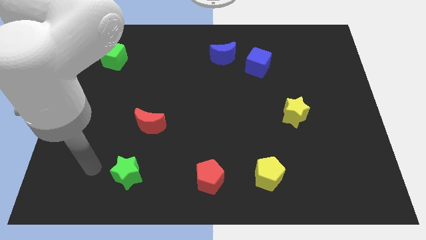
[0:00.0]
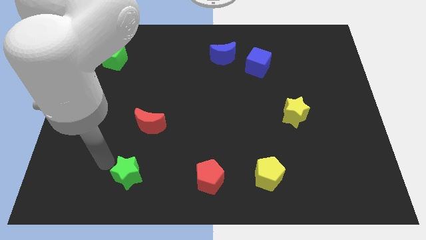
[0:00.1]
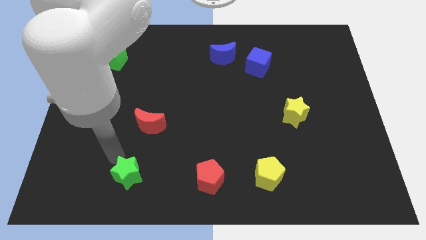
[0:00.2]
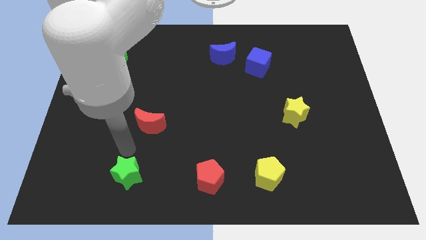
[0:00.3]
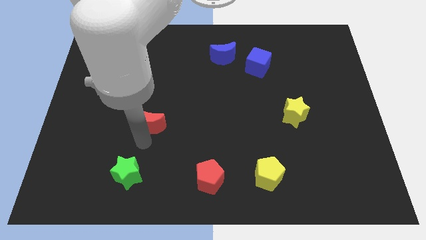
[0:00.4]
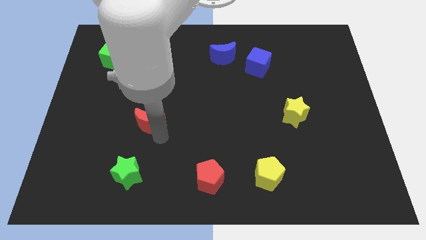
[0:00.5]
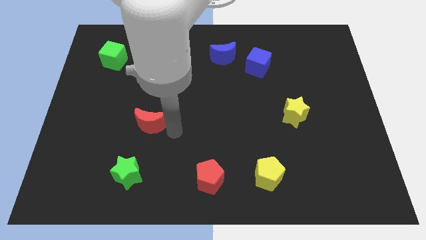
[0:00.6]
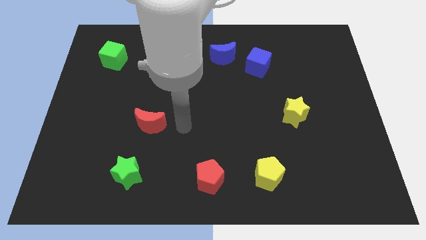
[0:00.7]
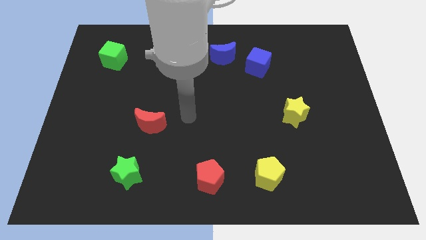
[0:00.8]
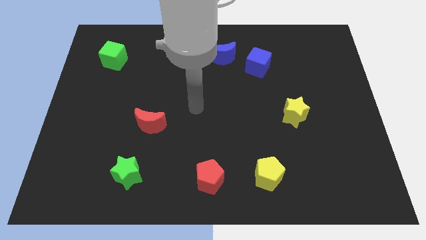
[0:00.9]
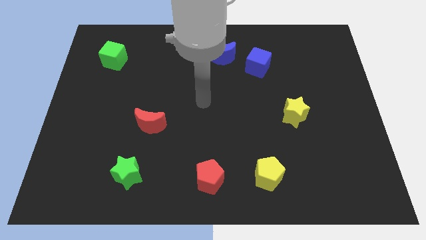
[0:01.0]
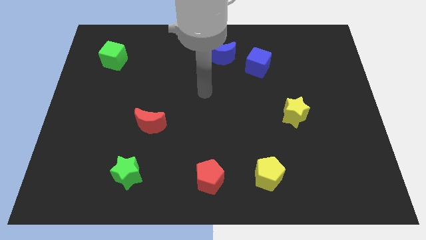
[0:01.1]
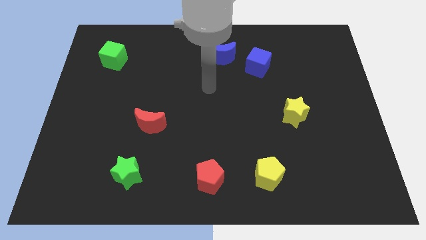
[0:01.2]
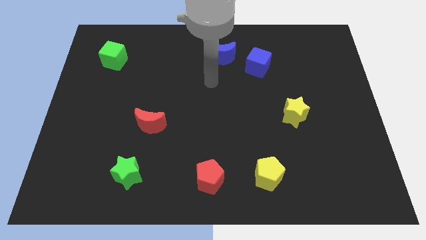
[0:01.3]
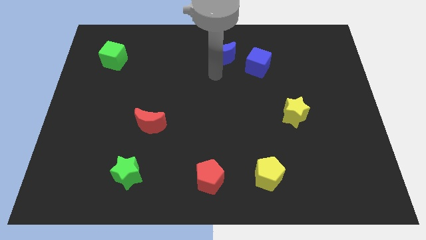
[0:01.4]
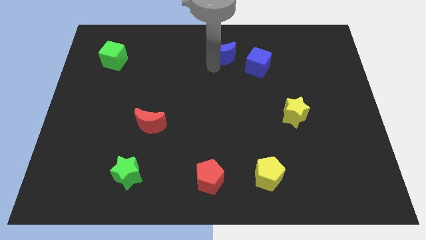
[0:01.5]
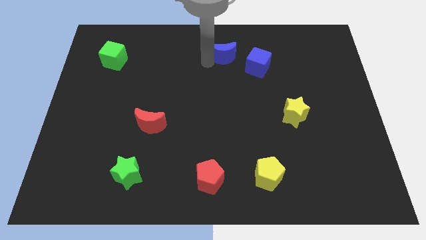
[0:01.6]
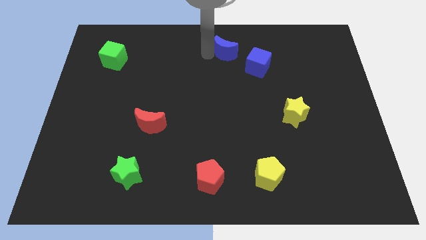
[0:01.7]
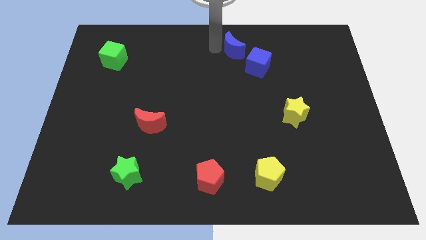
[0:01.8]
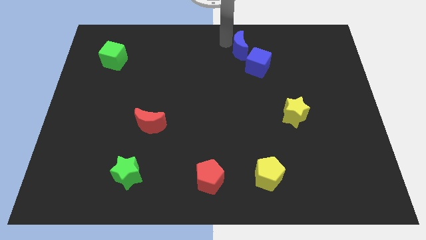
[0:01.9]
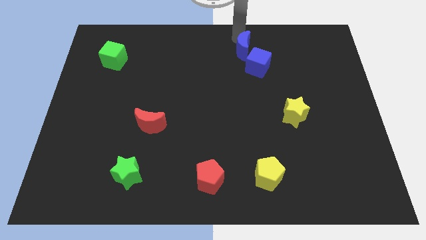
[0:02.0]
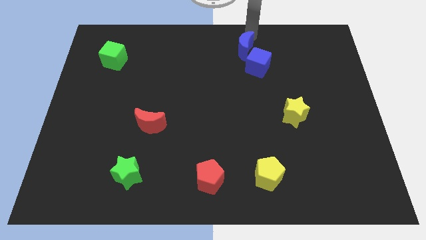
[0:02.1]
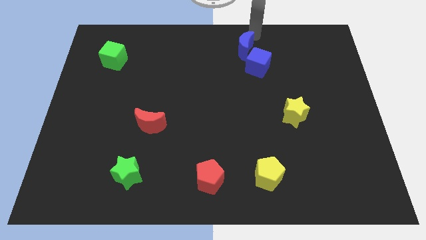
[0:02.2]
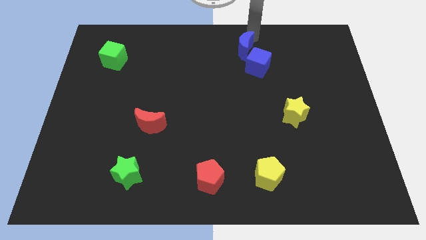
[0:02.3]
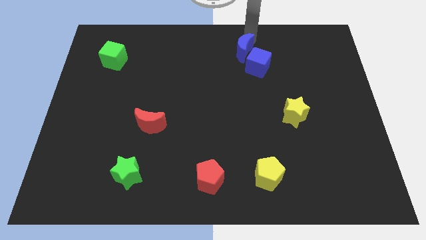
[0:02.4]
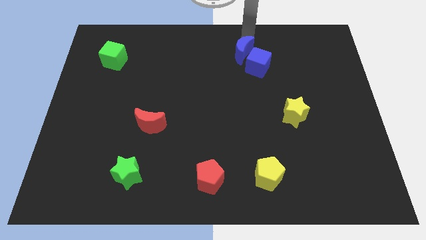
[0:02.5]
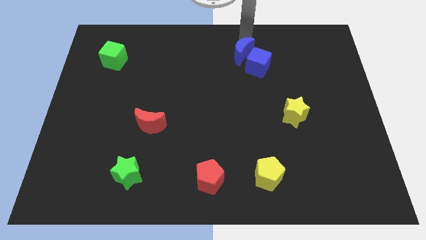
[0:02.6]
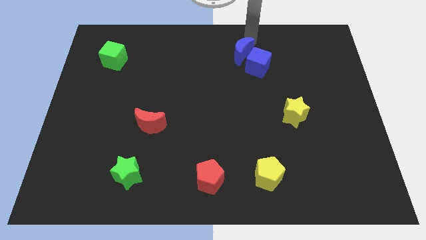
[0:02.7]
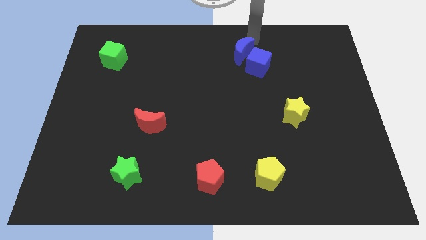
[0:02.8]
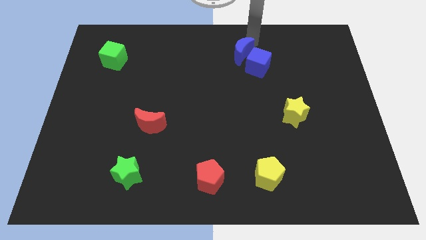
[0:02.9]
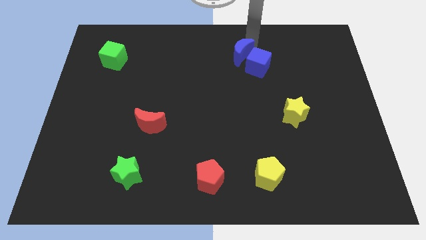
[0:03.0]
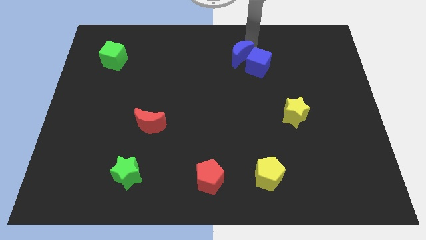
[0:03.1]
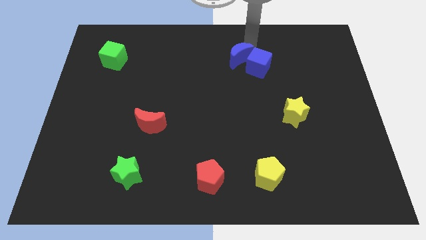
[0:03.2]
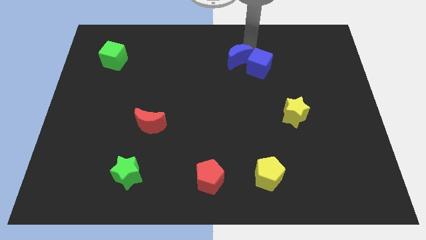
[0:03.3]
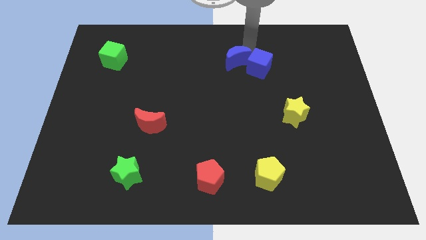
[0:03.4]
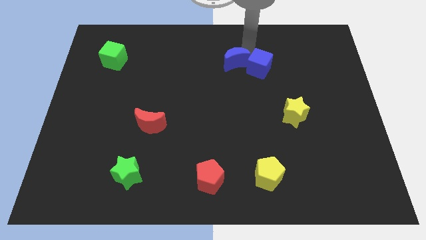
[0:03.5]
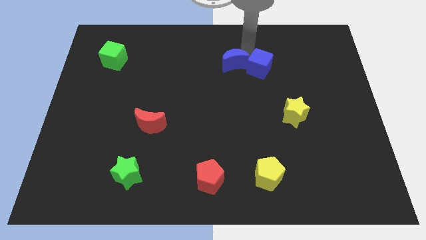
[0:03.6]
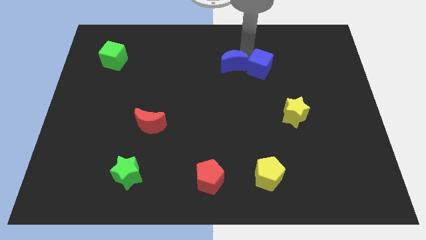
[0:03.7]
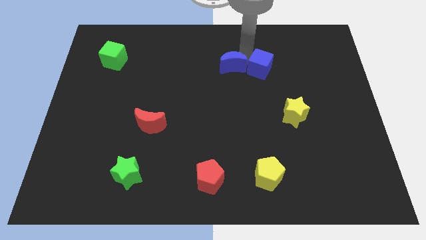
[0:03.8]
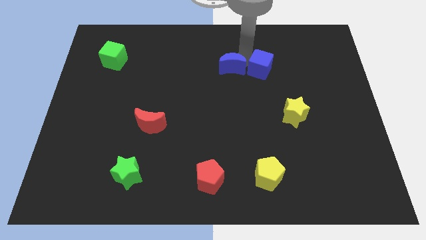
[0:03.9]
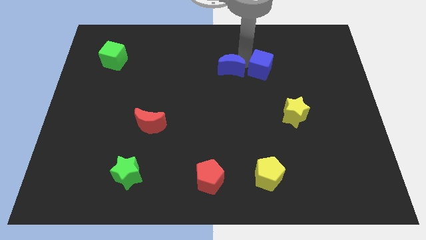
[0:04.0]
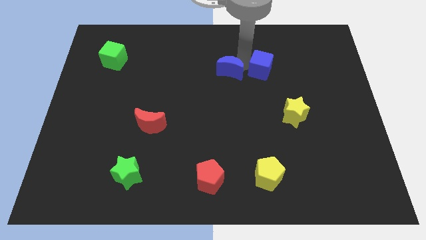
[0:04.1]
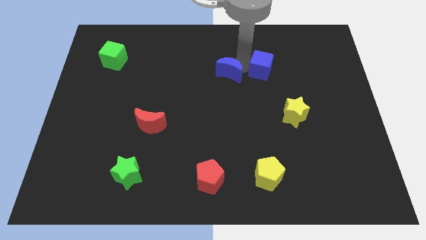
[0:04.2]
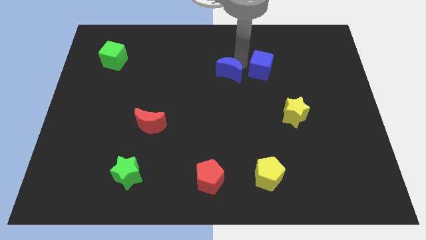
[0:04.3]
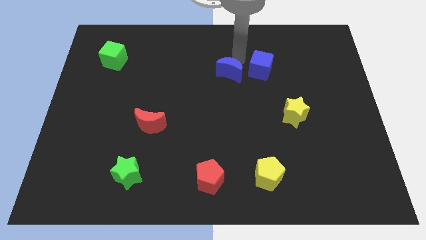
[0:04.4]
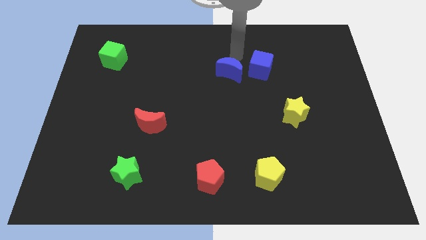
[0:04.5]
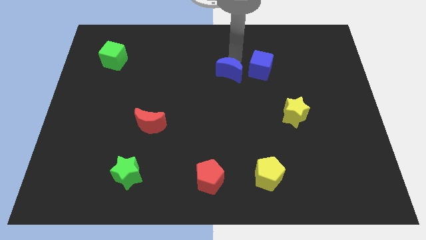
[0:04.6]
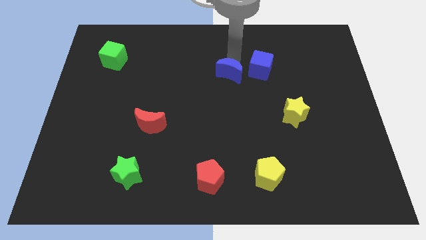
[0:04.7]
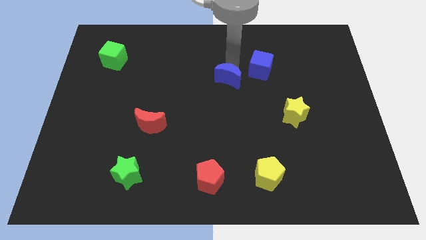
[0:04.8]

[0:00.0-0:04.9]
move the blue moon downwards a bit

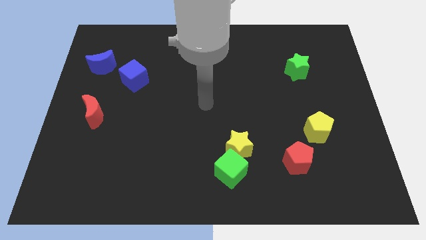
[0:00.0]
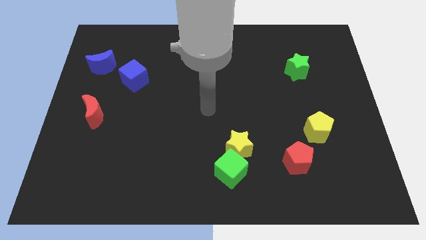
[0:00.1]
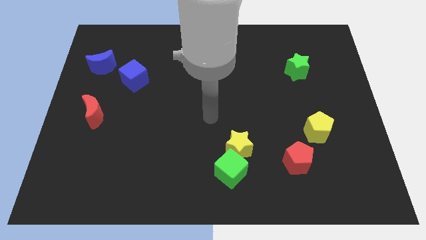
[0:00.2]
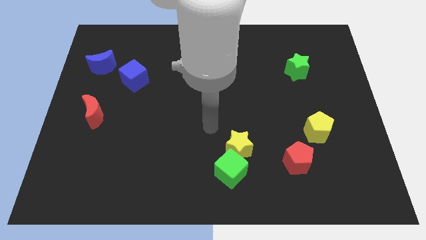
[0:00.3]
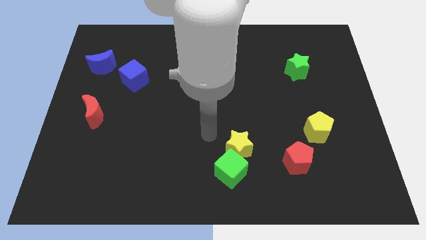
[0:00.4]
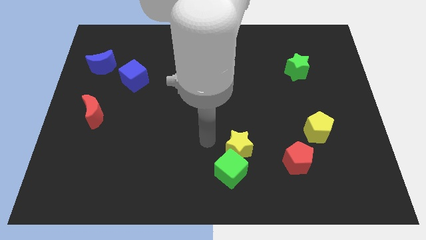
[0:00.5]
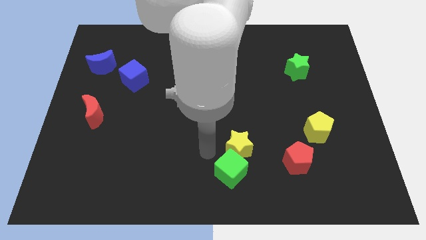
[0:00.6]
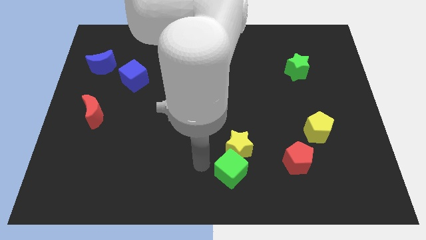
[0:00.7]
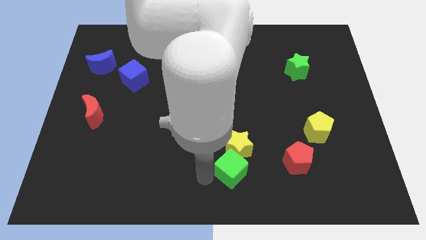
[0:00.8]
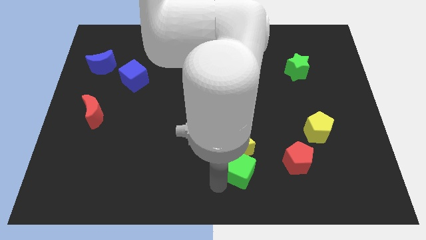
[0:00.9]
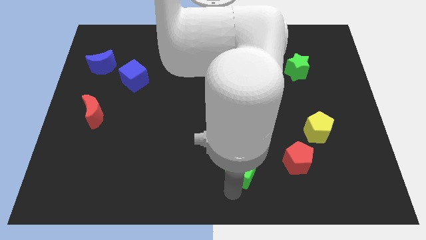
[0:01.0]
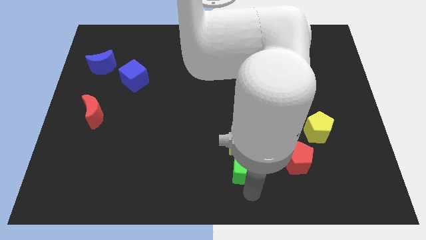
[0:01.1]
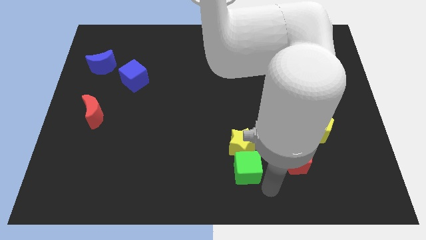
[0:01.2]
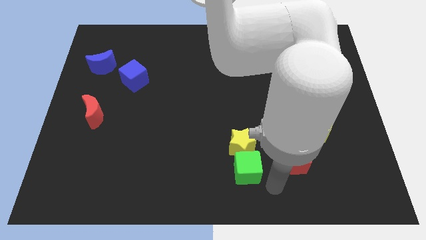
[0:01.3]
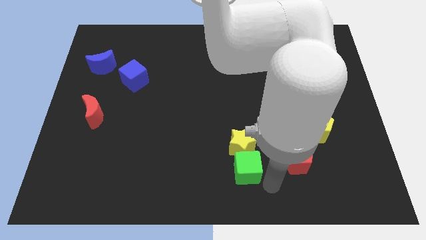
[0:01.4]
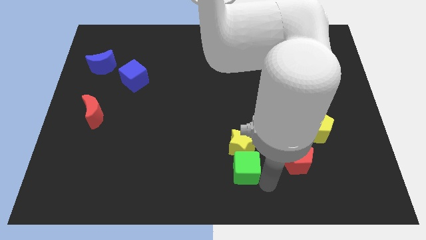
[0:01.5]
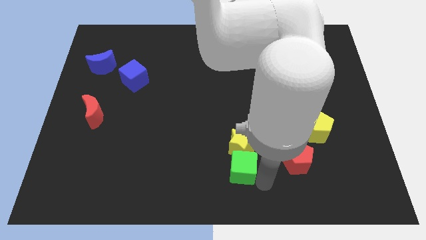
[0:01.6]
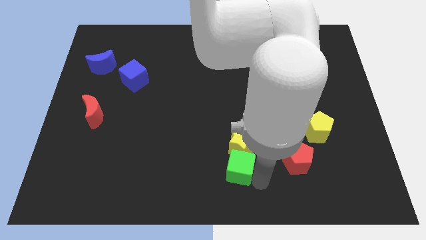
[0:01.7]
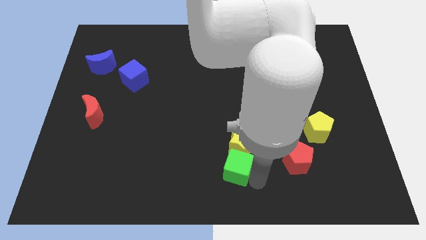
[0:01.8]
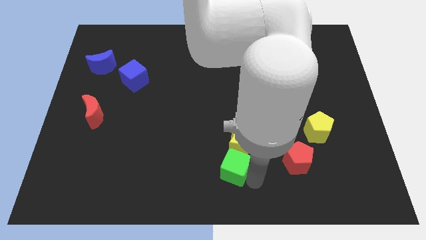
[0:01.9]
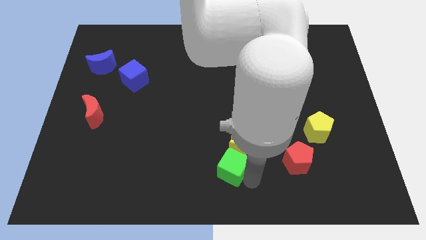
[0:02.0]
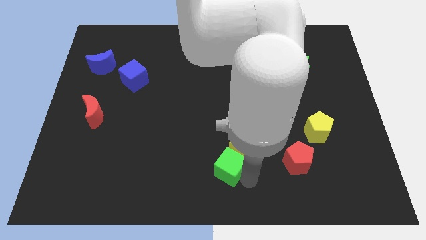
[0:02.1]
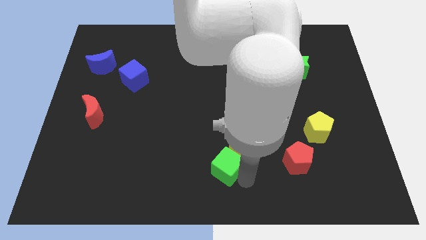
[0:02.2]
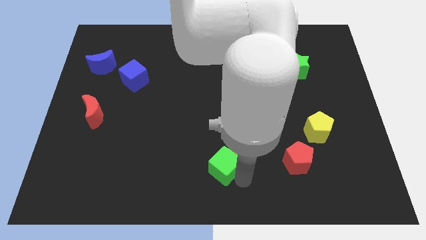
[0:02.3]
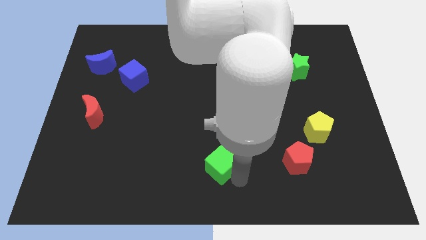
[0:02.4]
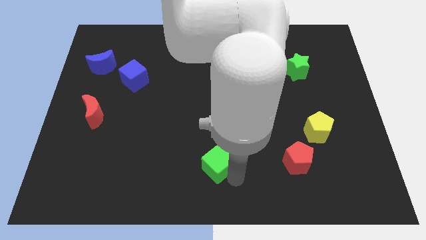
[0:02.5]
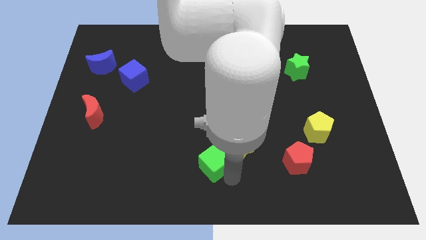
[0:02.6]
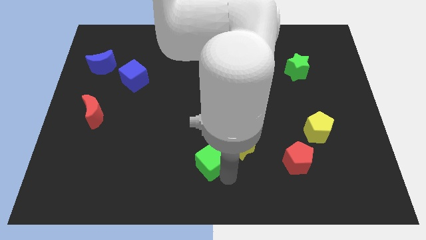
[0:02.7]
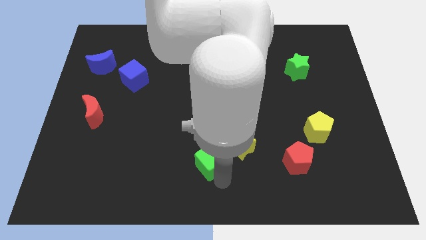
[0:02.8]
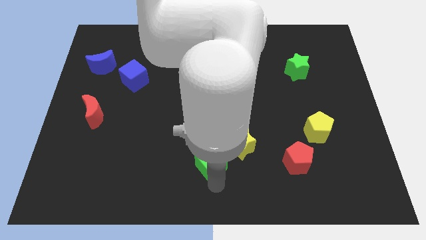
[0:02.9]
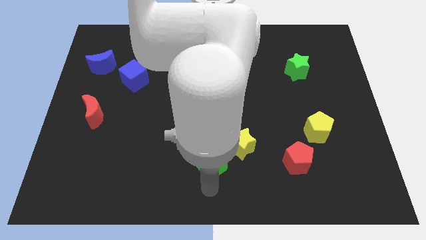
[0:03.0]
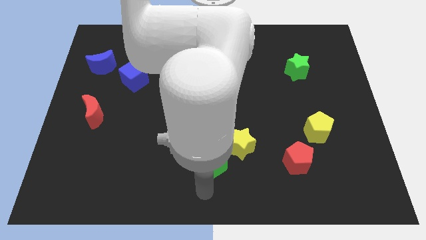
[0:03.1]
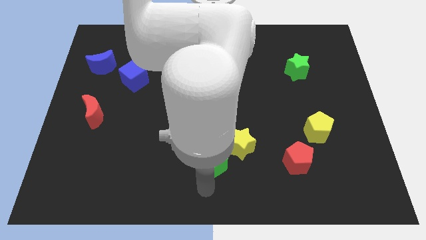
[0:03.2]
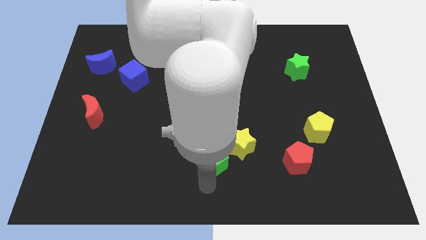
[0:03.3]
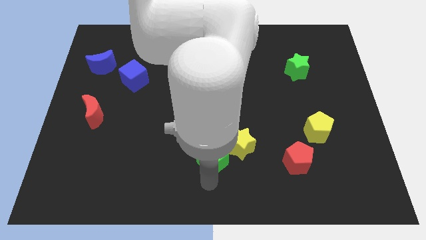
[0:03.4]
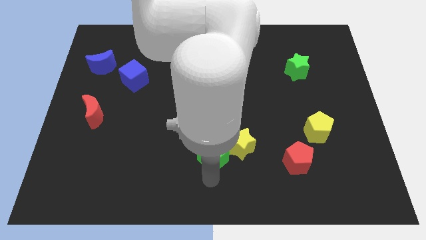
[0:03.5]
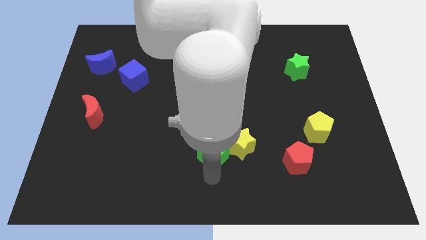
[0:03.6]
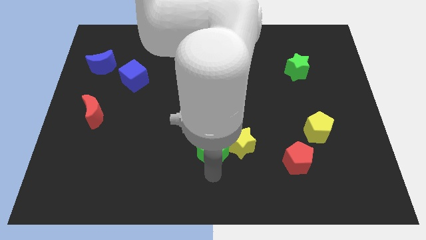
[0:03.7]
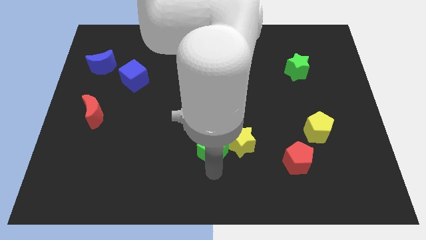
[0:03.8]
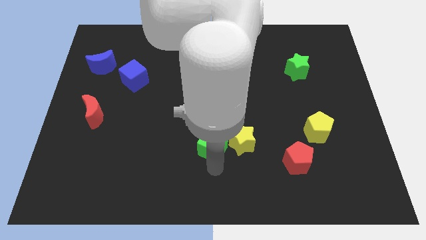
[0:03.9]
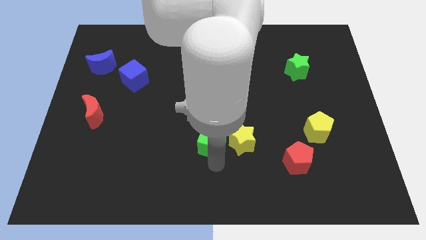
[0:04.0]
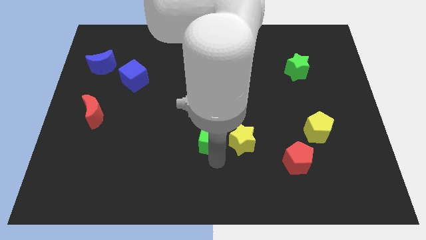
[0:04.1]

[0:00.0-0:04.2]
slightly move the green cube up
